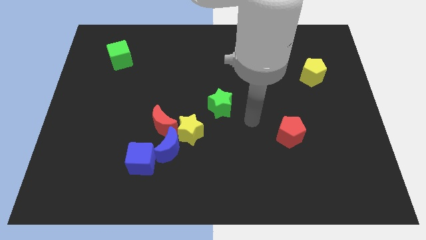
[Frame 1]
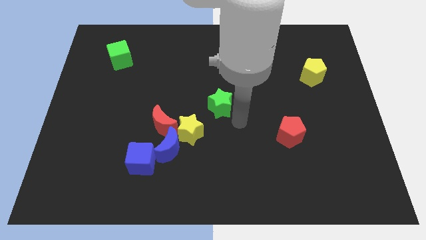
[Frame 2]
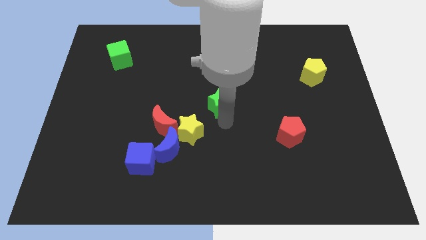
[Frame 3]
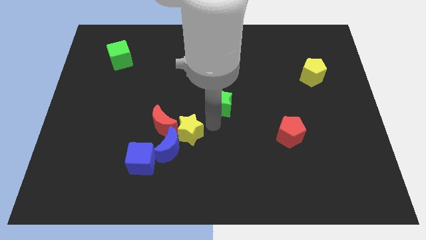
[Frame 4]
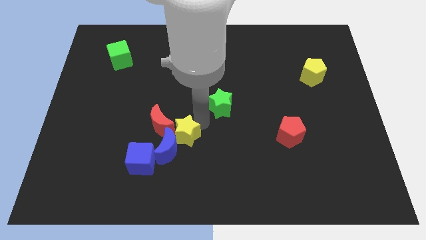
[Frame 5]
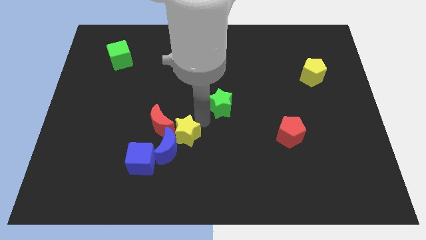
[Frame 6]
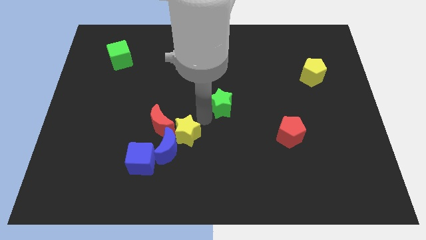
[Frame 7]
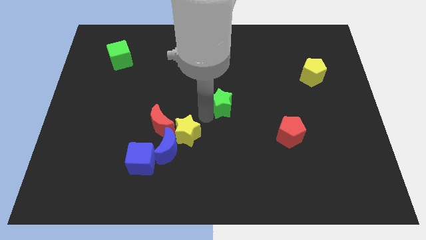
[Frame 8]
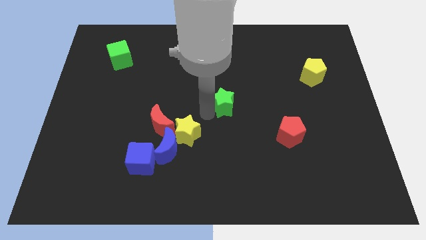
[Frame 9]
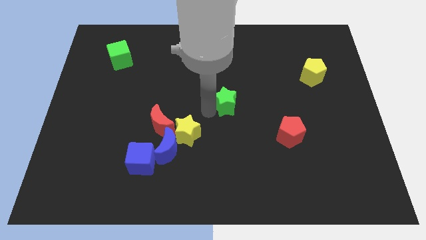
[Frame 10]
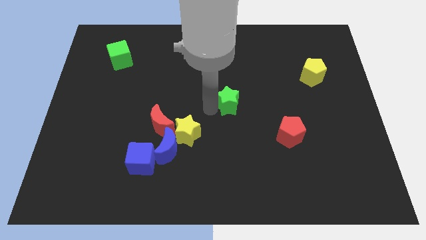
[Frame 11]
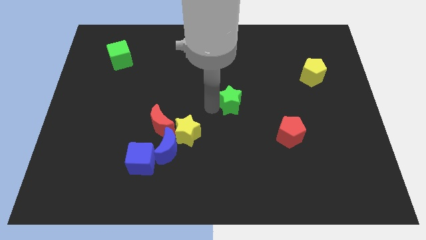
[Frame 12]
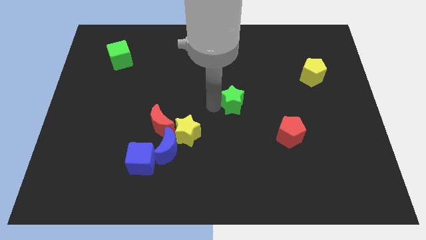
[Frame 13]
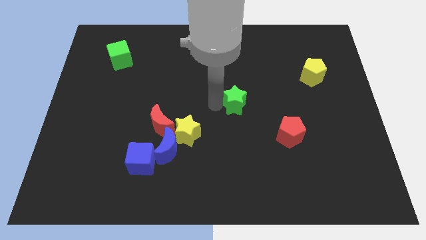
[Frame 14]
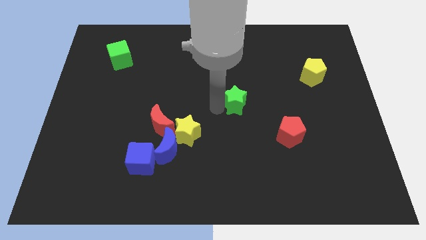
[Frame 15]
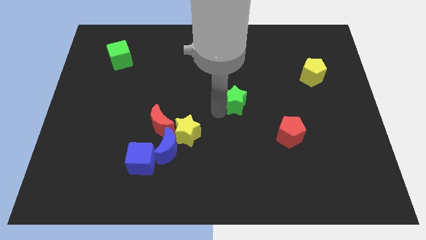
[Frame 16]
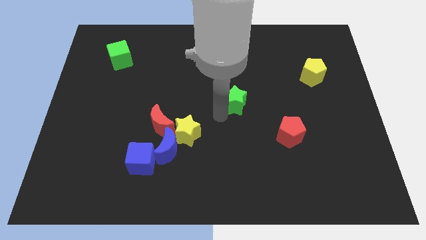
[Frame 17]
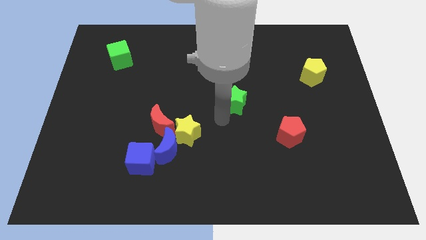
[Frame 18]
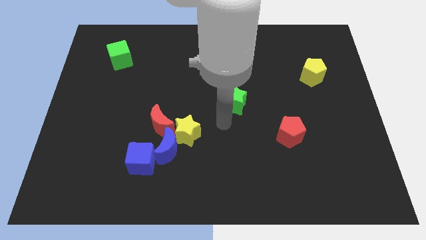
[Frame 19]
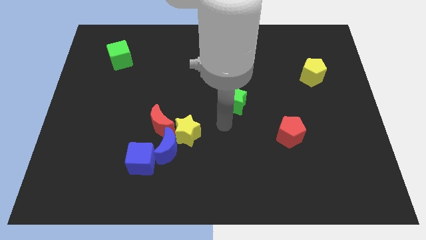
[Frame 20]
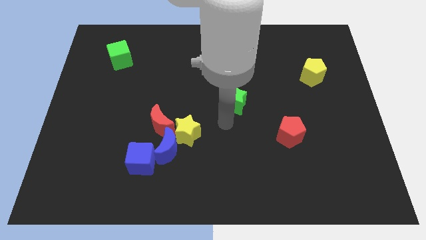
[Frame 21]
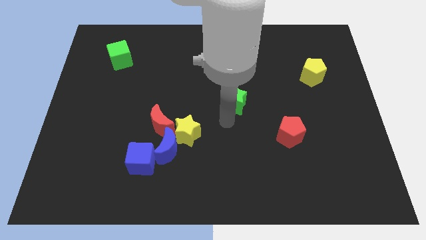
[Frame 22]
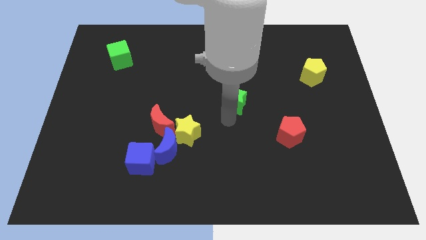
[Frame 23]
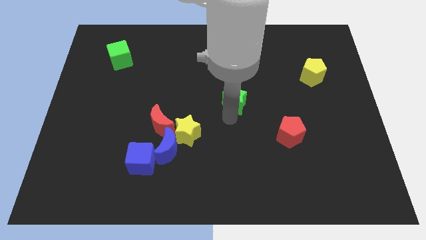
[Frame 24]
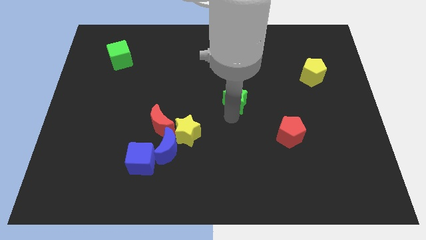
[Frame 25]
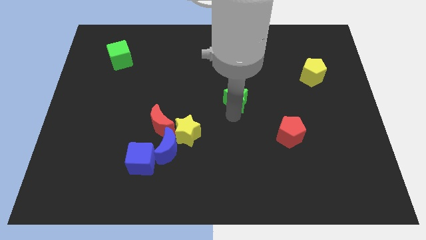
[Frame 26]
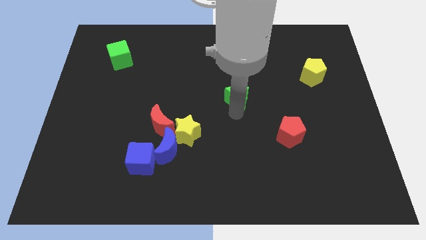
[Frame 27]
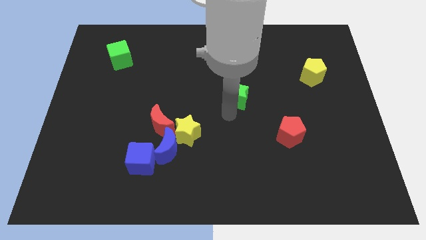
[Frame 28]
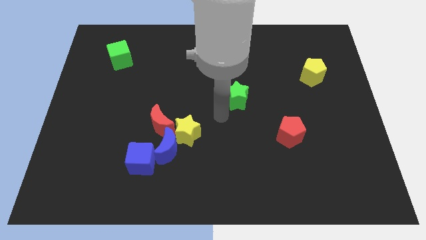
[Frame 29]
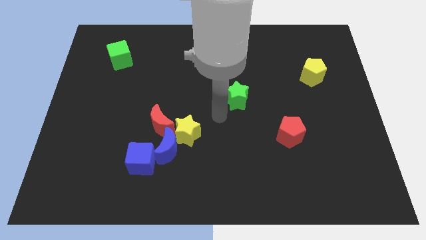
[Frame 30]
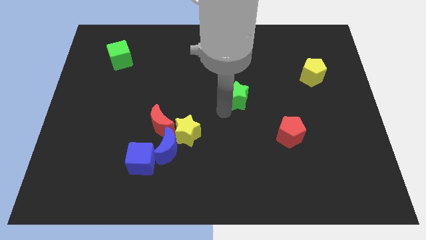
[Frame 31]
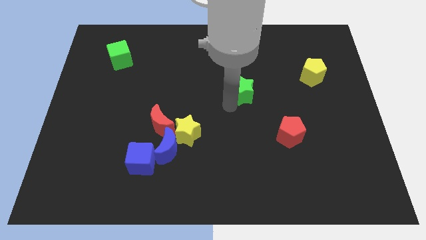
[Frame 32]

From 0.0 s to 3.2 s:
move the green star a little bit upwards and then to the right

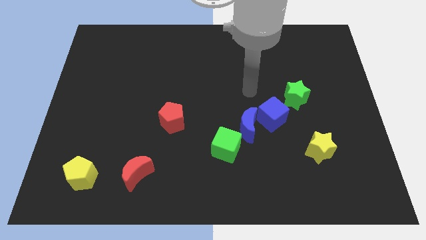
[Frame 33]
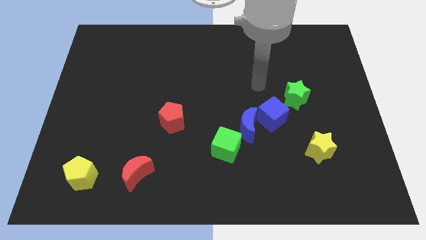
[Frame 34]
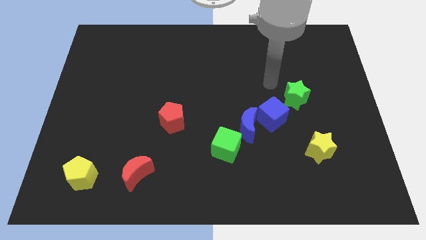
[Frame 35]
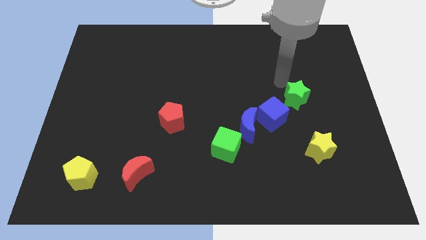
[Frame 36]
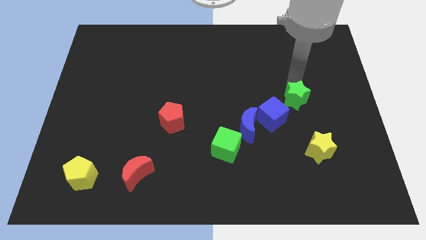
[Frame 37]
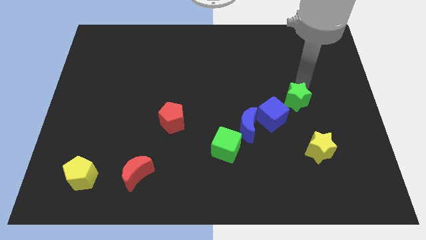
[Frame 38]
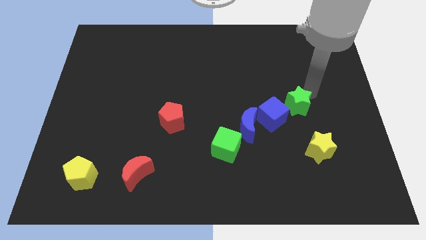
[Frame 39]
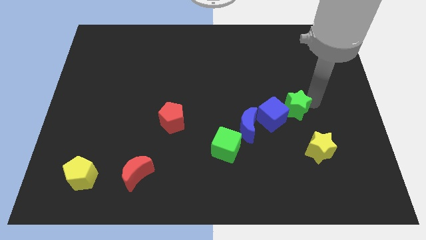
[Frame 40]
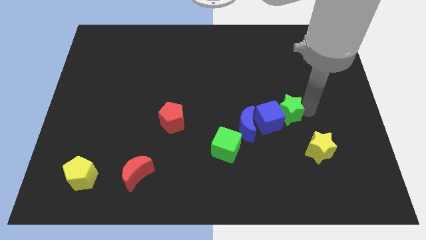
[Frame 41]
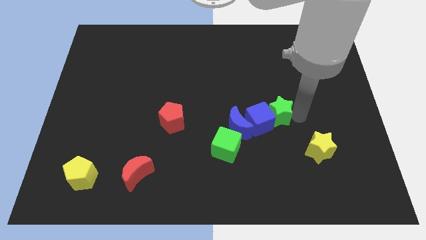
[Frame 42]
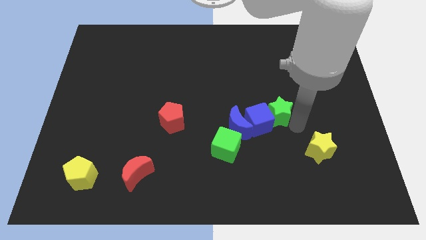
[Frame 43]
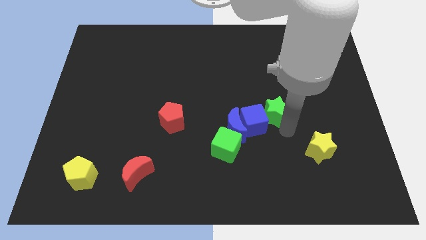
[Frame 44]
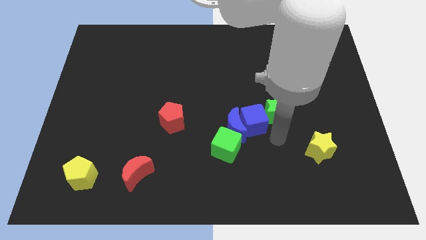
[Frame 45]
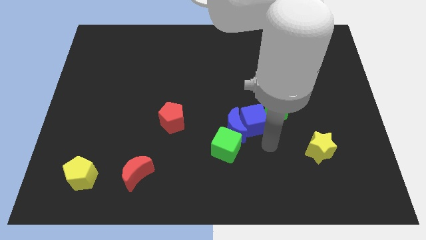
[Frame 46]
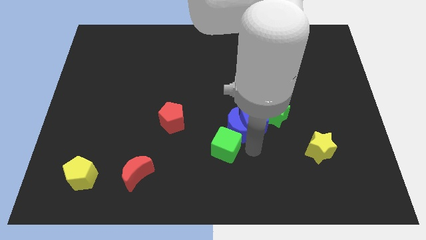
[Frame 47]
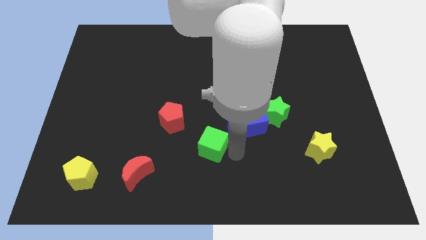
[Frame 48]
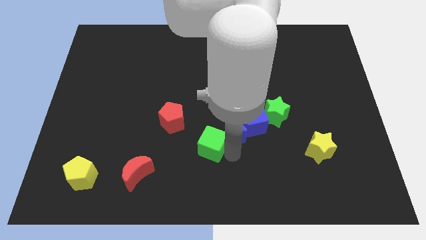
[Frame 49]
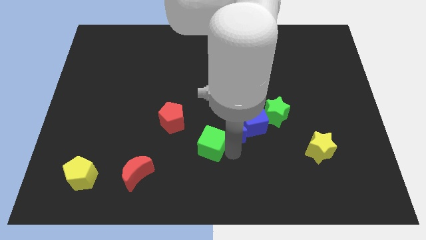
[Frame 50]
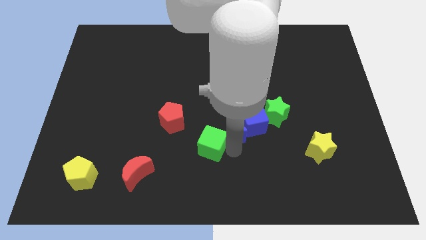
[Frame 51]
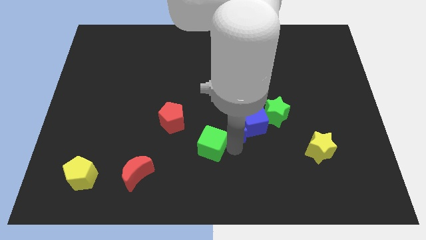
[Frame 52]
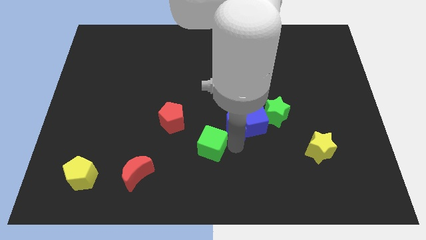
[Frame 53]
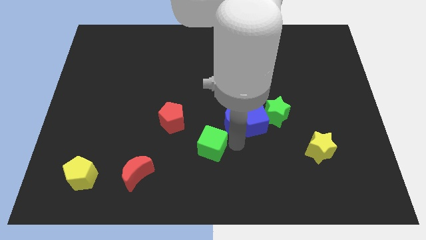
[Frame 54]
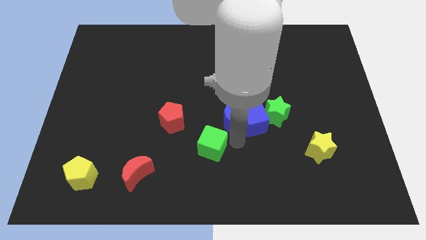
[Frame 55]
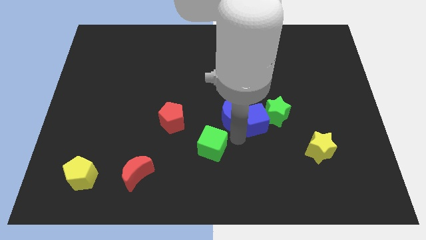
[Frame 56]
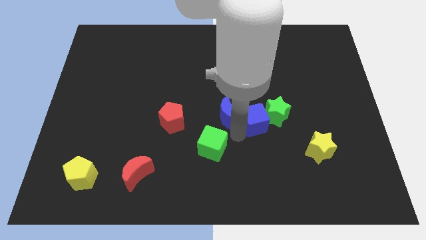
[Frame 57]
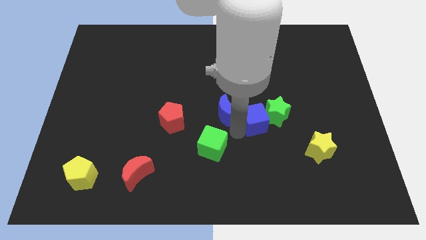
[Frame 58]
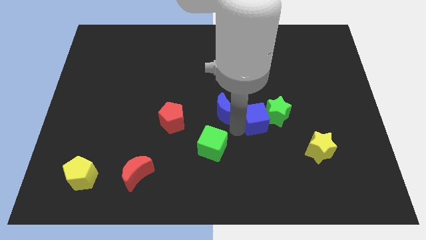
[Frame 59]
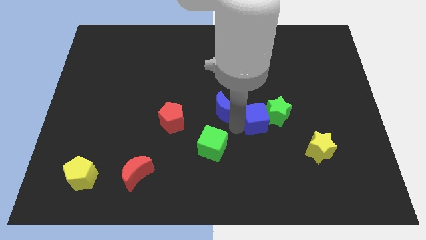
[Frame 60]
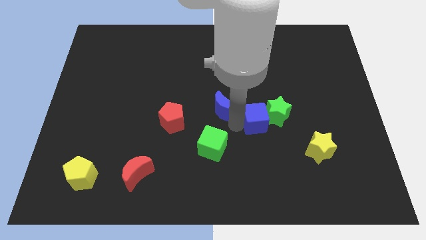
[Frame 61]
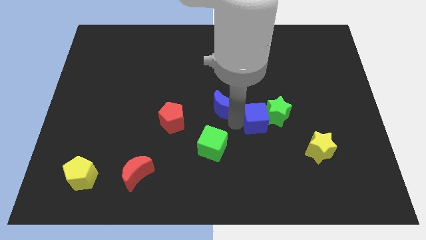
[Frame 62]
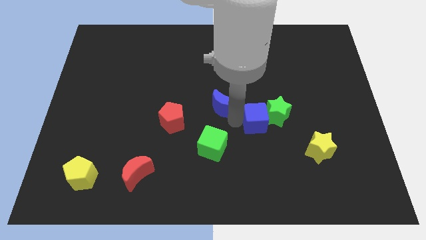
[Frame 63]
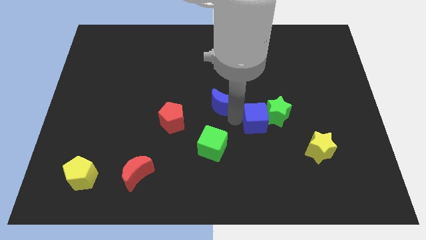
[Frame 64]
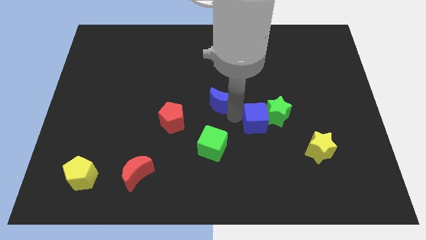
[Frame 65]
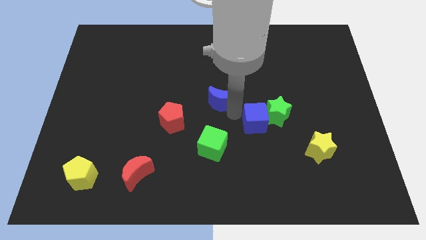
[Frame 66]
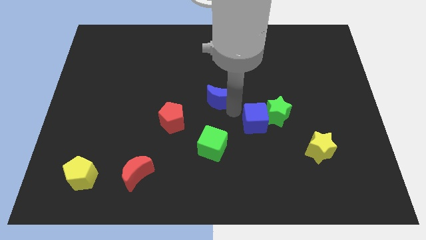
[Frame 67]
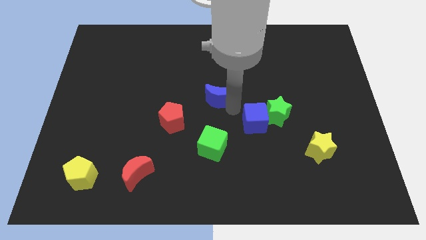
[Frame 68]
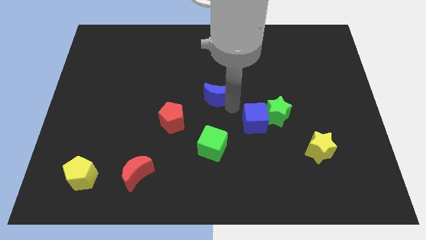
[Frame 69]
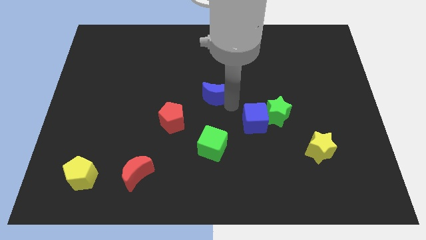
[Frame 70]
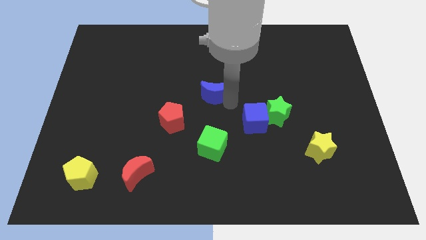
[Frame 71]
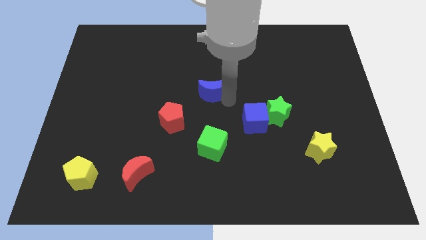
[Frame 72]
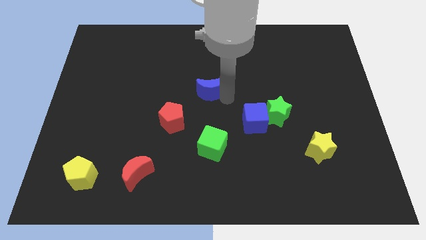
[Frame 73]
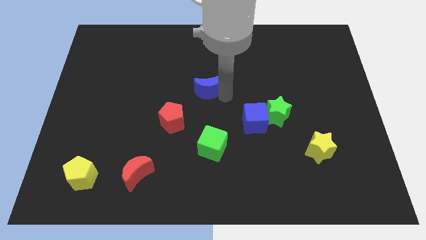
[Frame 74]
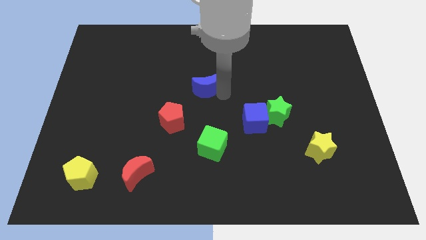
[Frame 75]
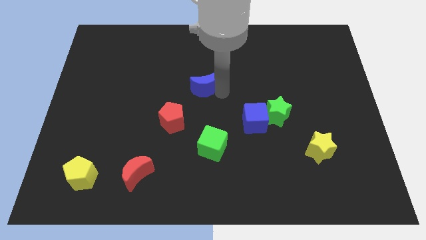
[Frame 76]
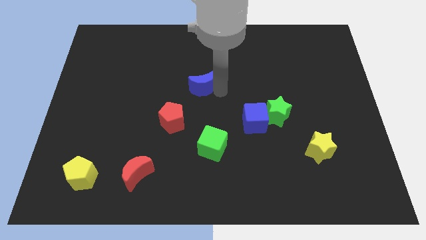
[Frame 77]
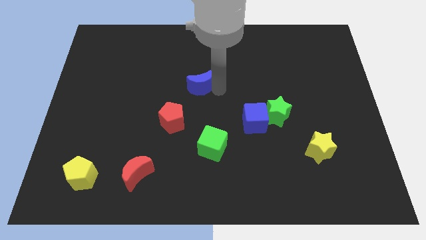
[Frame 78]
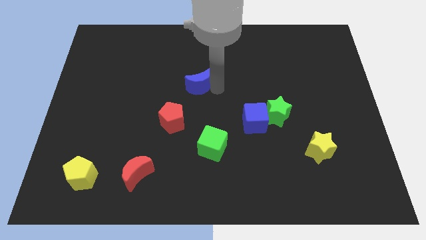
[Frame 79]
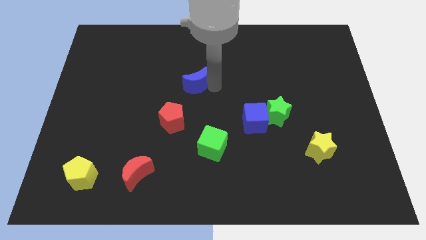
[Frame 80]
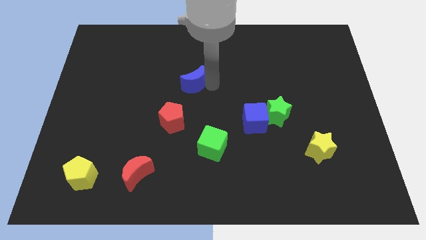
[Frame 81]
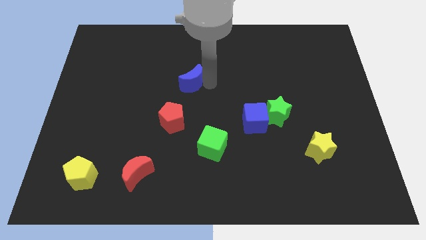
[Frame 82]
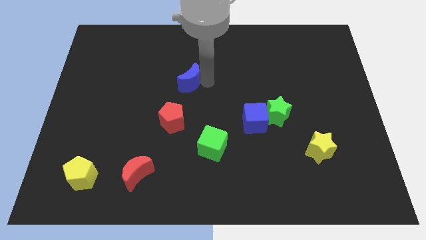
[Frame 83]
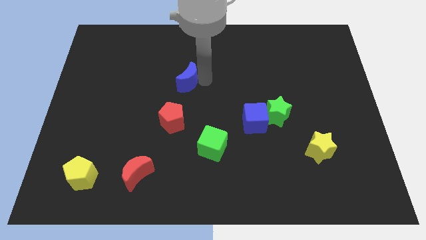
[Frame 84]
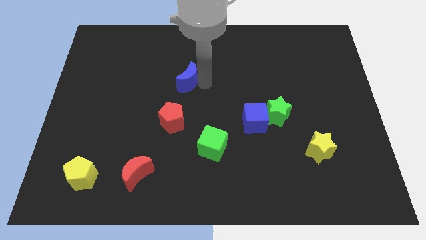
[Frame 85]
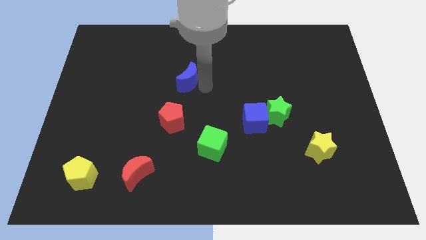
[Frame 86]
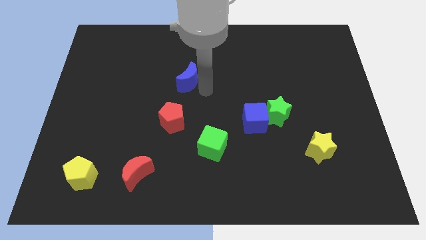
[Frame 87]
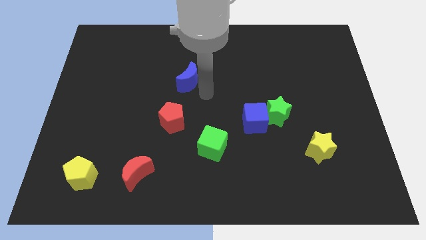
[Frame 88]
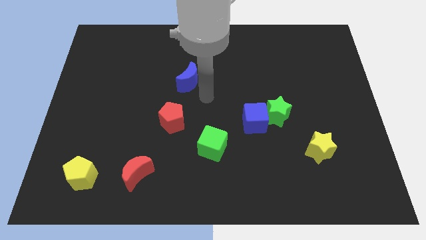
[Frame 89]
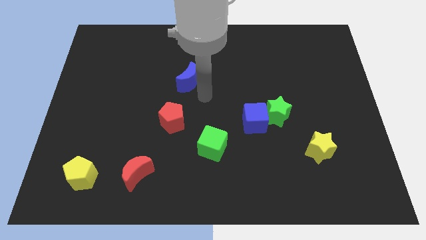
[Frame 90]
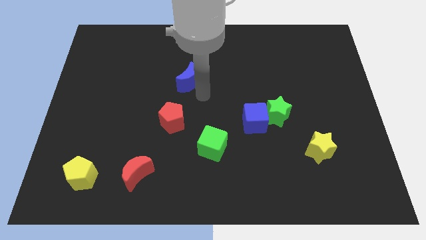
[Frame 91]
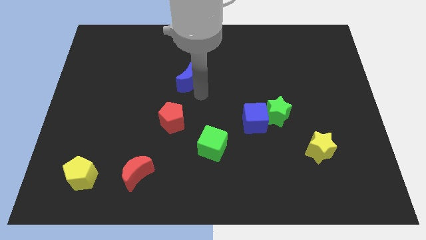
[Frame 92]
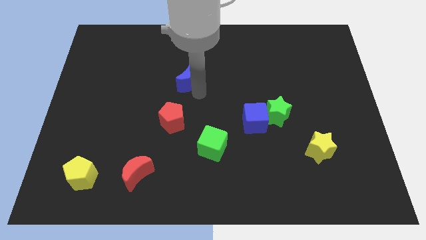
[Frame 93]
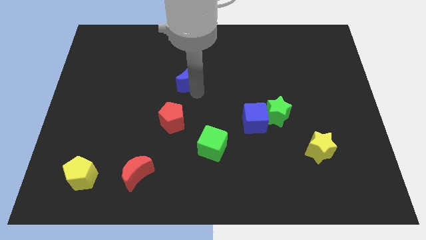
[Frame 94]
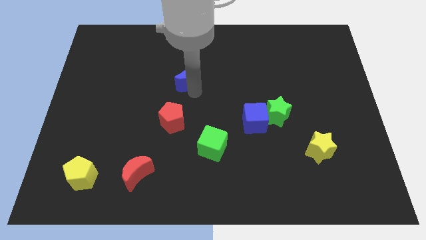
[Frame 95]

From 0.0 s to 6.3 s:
move the blue moon diagonally upwards and to the left
